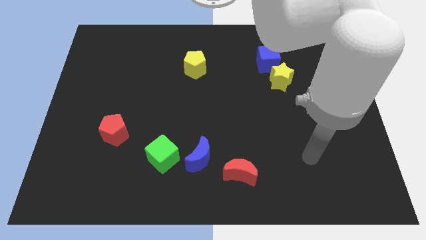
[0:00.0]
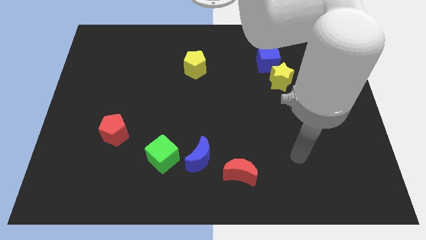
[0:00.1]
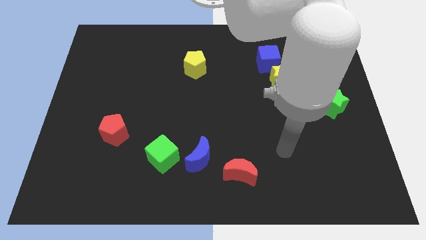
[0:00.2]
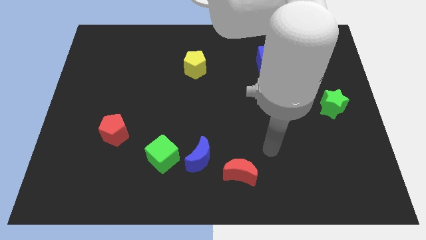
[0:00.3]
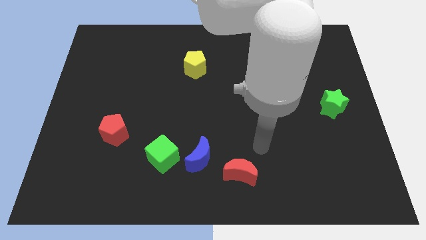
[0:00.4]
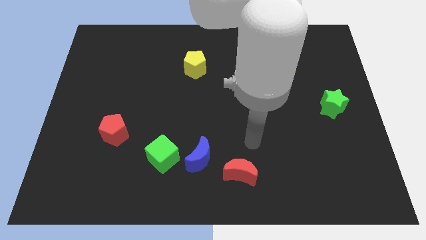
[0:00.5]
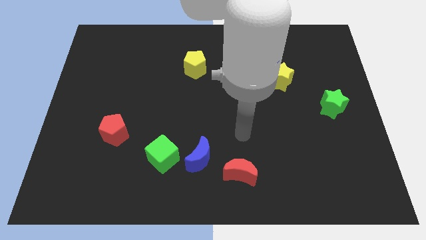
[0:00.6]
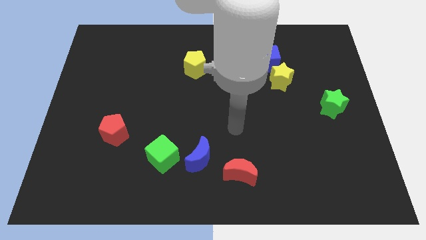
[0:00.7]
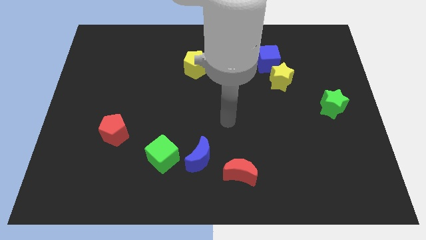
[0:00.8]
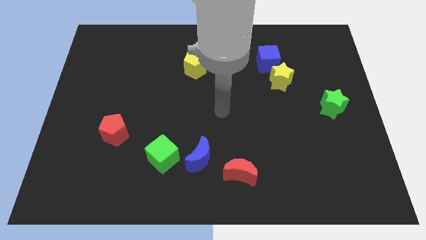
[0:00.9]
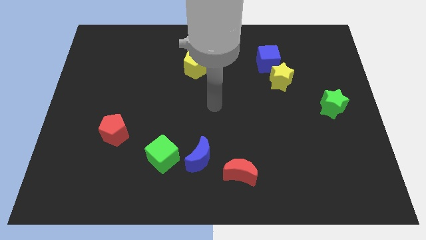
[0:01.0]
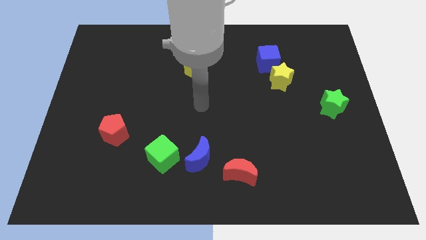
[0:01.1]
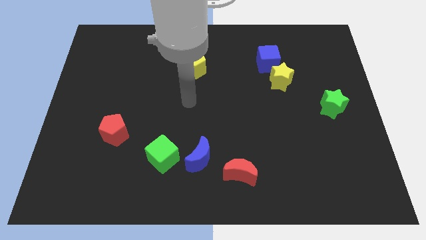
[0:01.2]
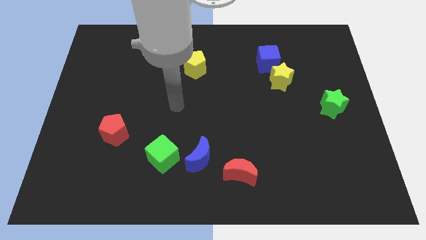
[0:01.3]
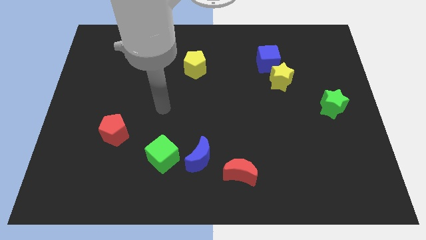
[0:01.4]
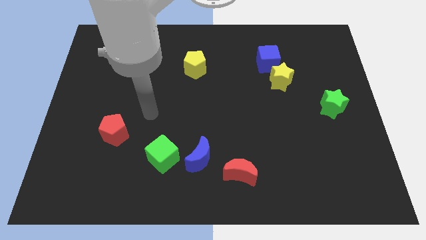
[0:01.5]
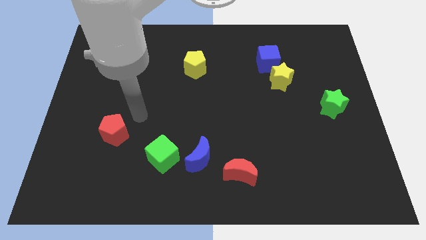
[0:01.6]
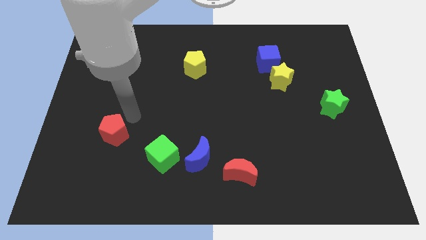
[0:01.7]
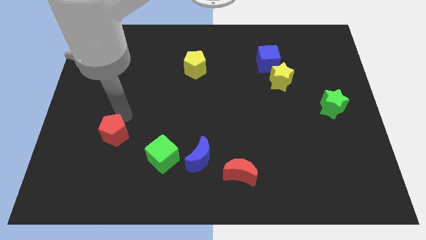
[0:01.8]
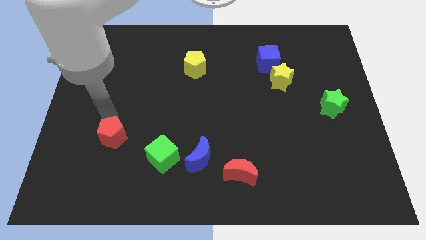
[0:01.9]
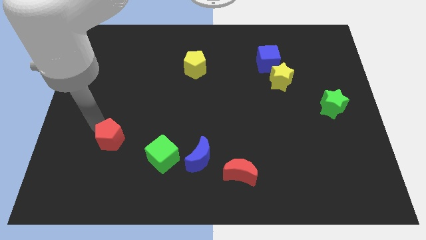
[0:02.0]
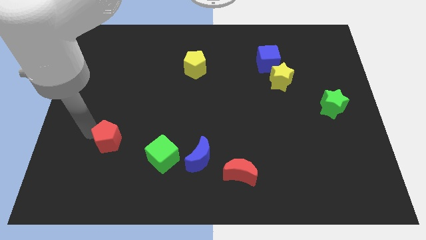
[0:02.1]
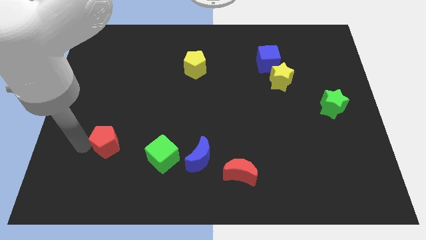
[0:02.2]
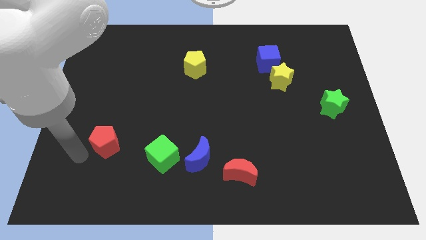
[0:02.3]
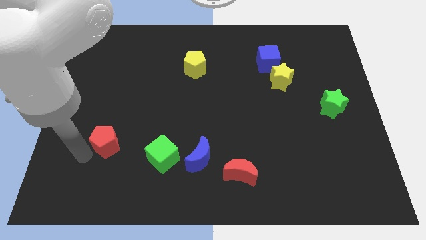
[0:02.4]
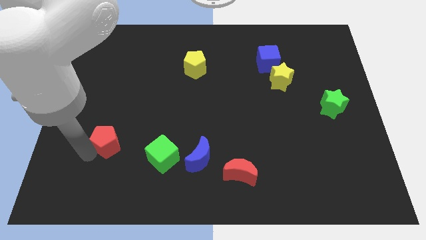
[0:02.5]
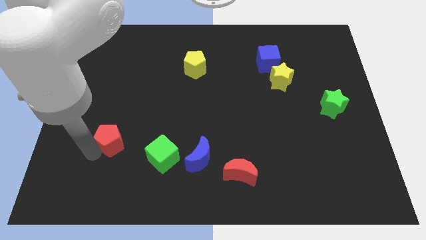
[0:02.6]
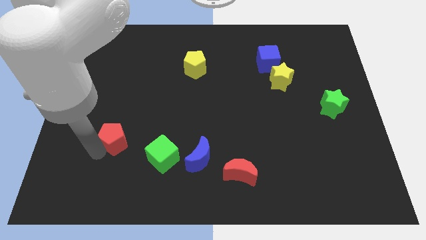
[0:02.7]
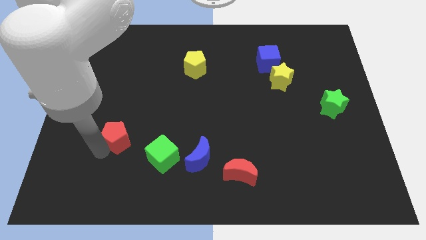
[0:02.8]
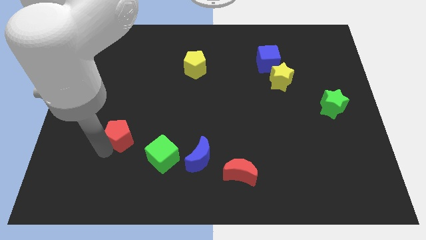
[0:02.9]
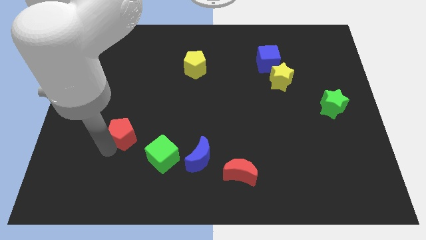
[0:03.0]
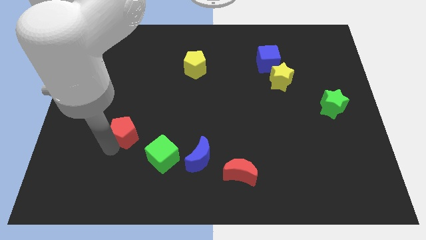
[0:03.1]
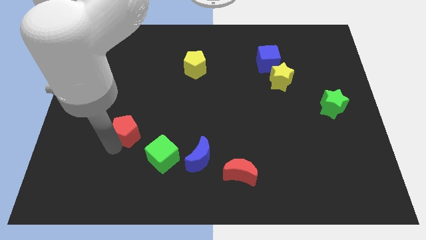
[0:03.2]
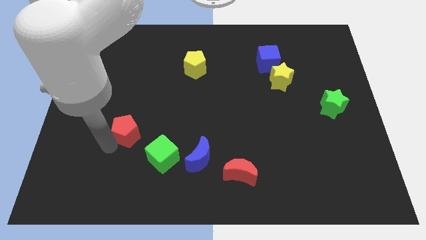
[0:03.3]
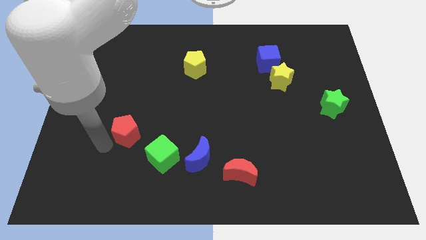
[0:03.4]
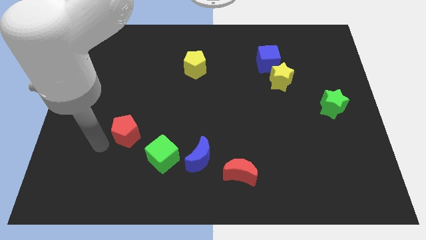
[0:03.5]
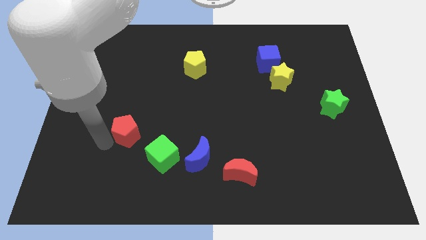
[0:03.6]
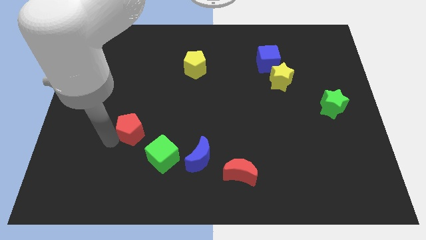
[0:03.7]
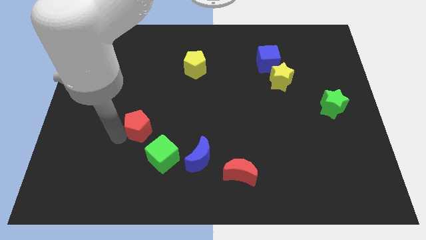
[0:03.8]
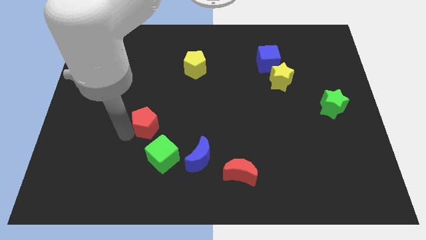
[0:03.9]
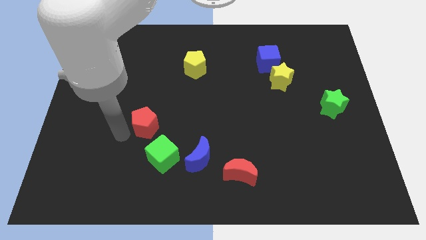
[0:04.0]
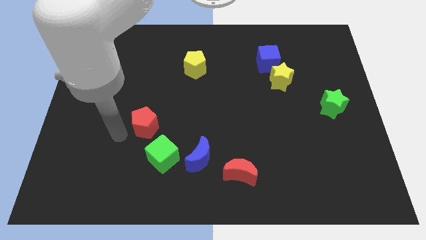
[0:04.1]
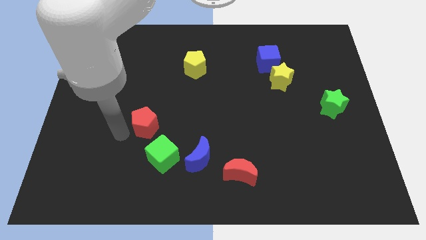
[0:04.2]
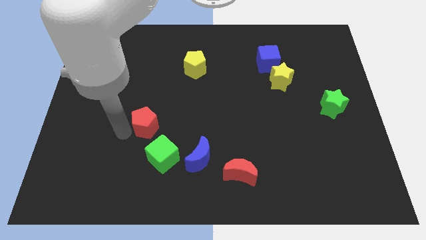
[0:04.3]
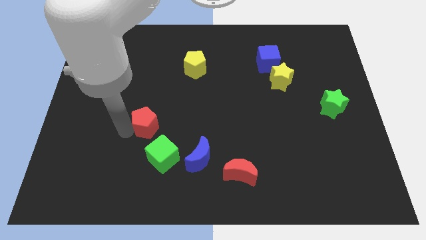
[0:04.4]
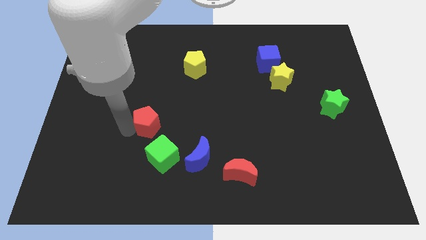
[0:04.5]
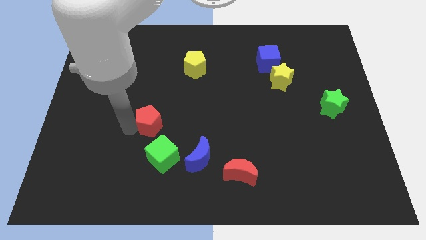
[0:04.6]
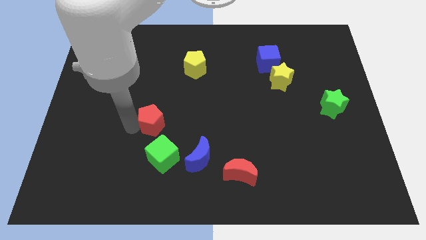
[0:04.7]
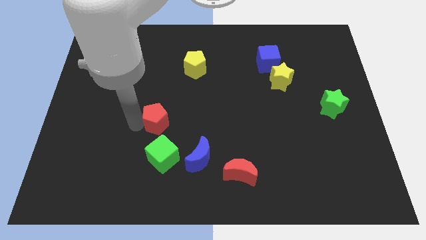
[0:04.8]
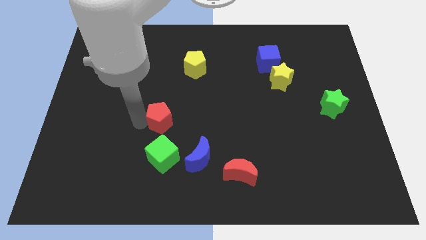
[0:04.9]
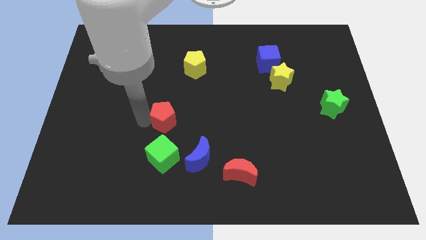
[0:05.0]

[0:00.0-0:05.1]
push the red pentagon to the center of the board

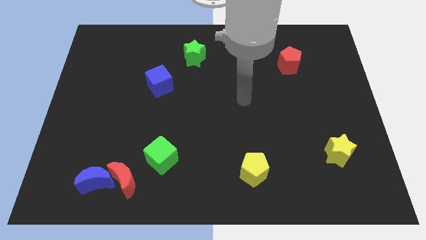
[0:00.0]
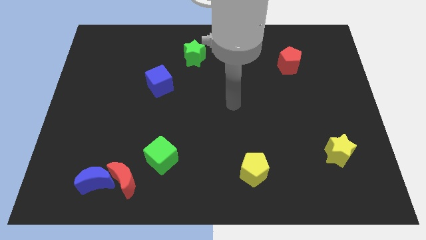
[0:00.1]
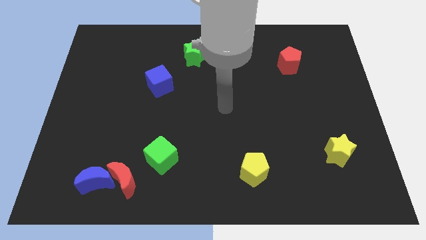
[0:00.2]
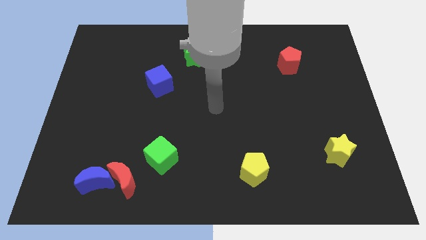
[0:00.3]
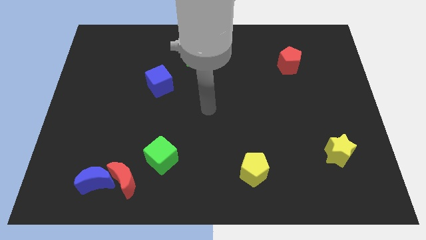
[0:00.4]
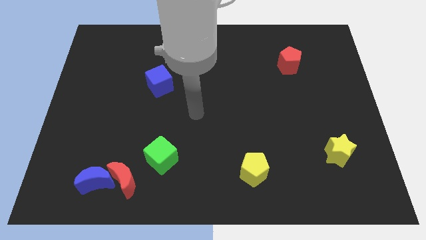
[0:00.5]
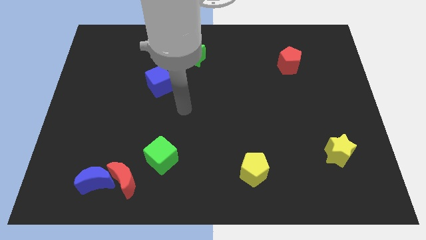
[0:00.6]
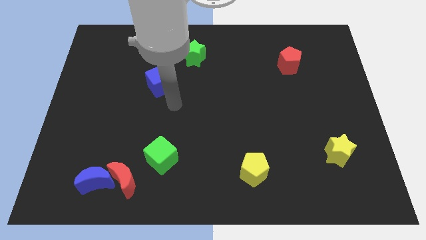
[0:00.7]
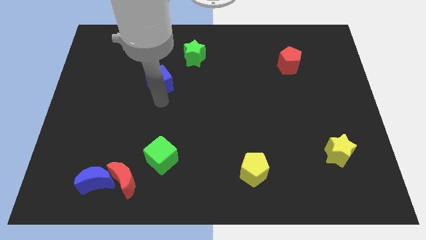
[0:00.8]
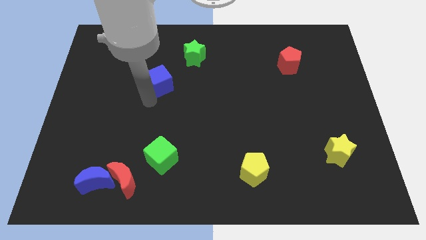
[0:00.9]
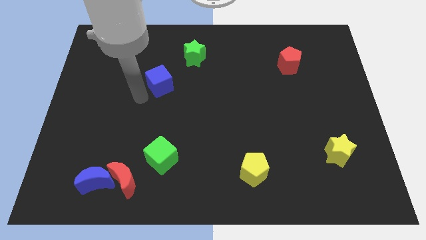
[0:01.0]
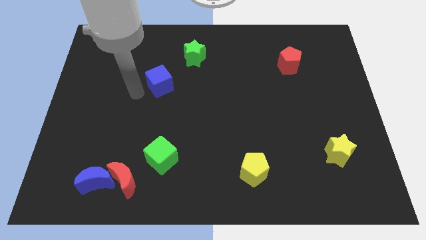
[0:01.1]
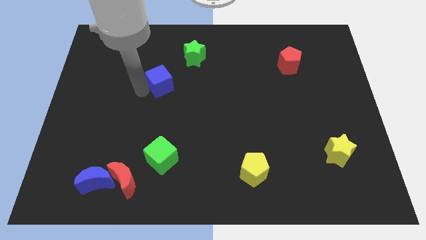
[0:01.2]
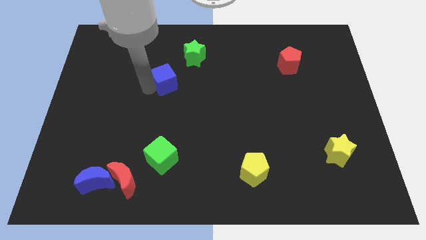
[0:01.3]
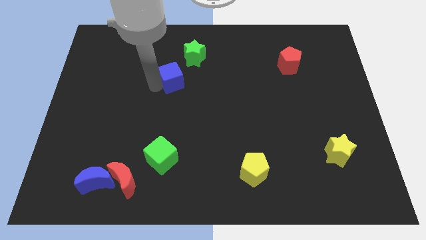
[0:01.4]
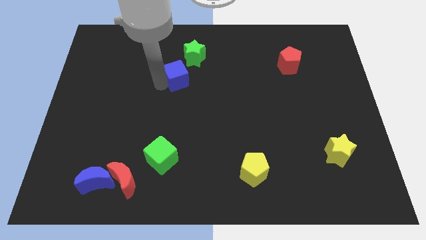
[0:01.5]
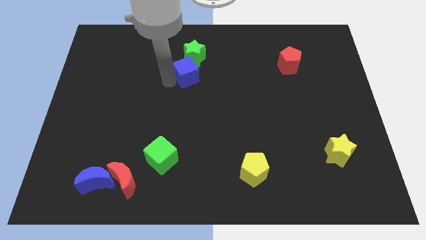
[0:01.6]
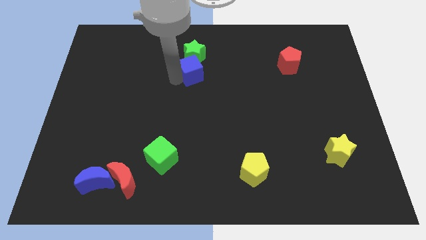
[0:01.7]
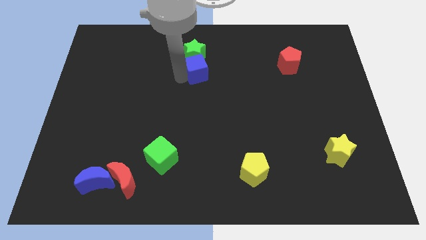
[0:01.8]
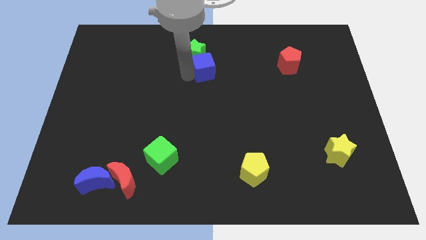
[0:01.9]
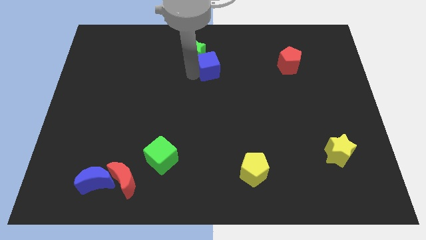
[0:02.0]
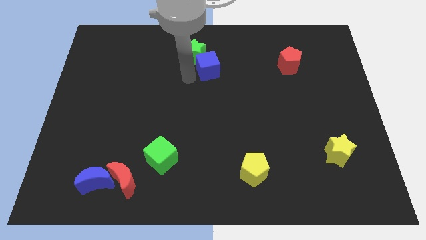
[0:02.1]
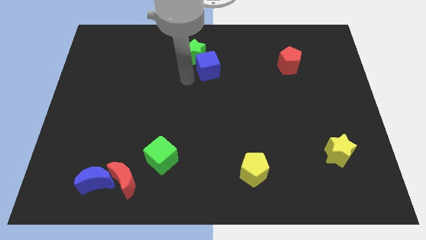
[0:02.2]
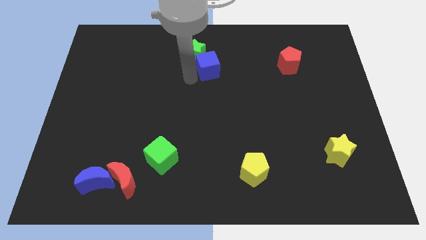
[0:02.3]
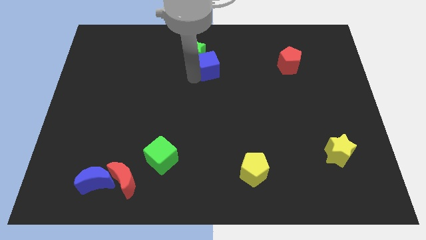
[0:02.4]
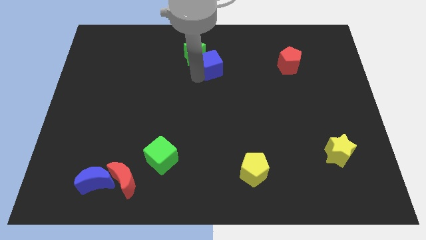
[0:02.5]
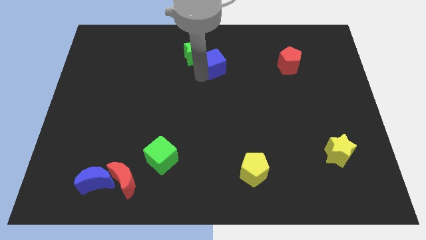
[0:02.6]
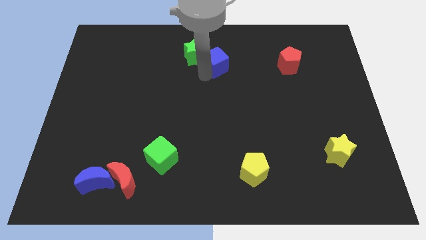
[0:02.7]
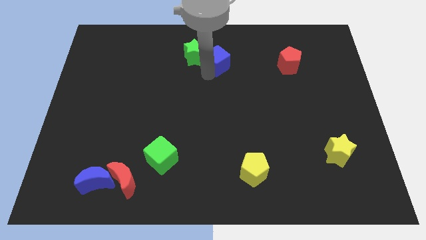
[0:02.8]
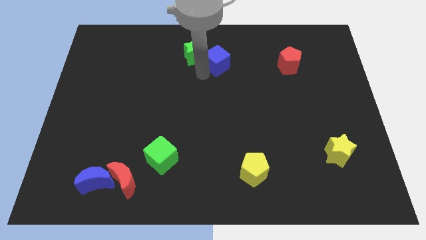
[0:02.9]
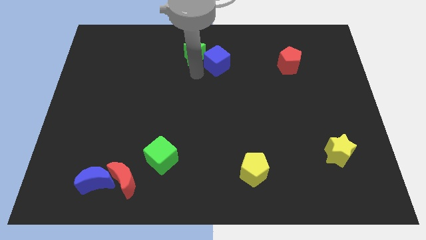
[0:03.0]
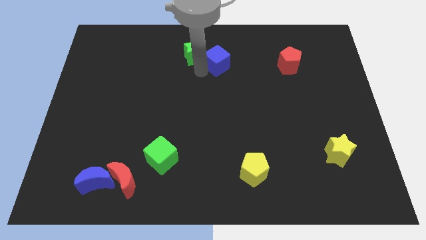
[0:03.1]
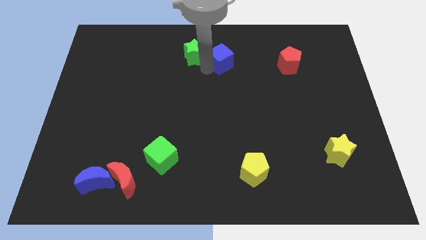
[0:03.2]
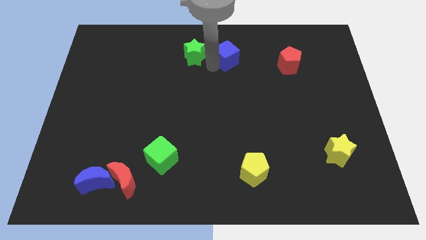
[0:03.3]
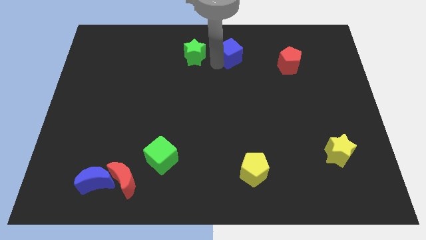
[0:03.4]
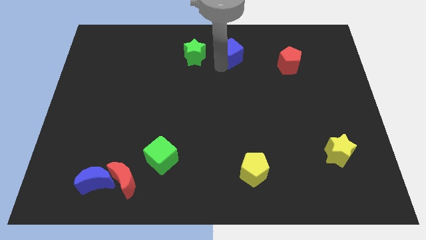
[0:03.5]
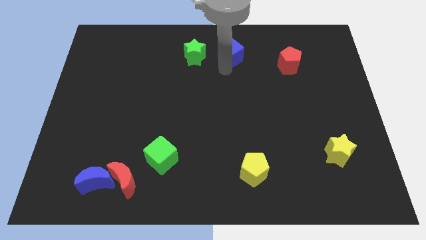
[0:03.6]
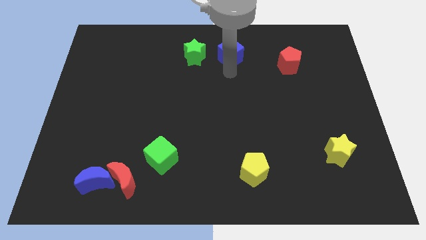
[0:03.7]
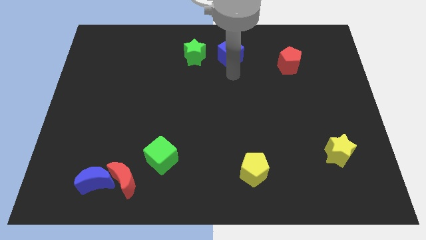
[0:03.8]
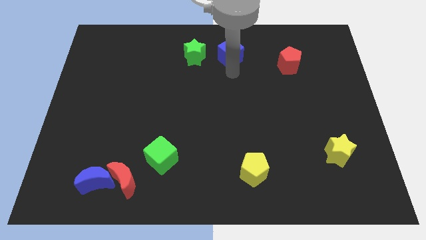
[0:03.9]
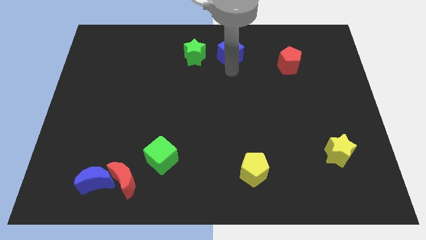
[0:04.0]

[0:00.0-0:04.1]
push the blue cube to the towards your base
